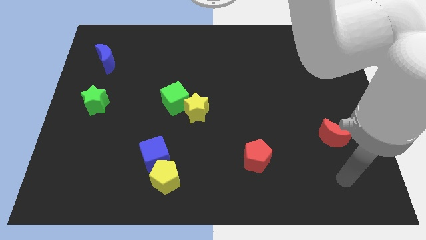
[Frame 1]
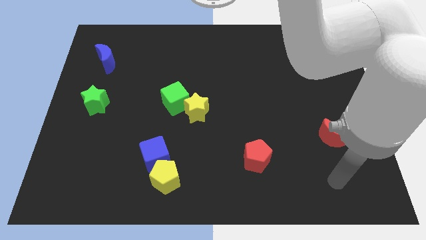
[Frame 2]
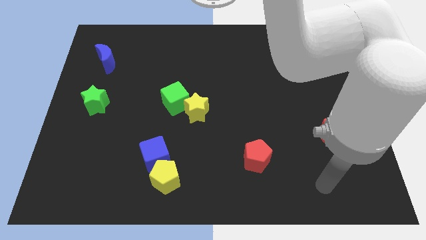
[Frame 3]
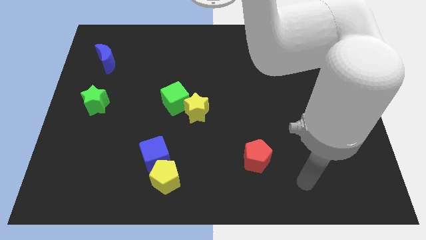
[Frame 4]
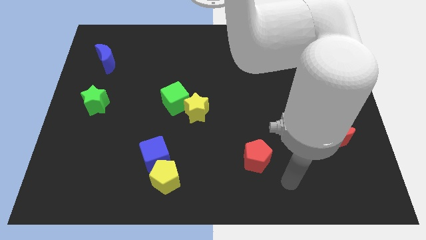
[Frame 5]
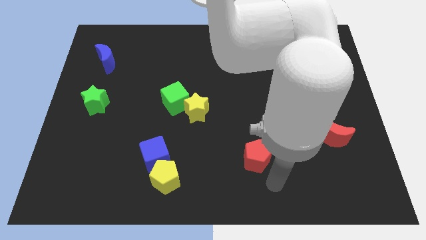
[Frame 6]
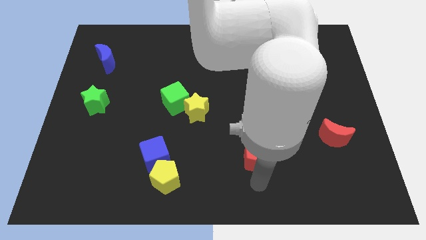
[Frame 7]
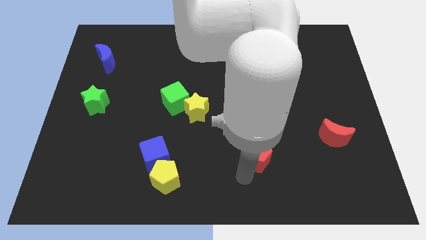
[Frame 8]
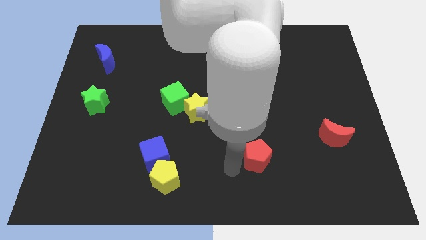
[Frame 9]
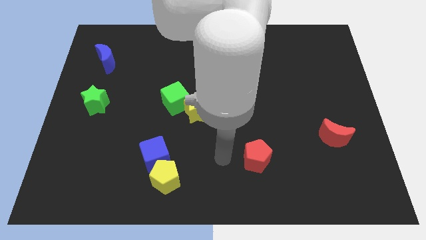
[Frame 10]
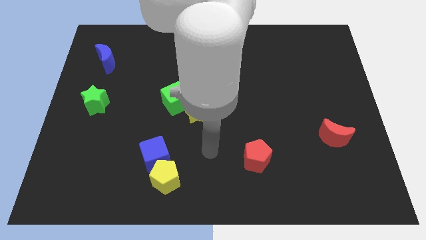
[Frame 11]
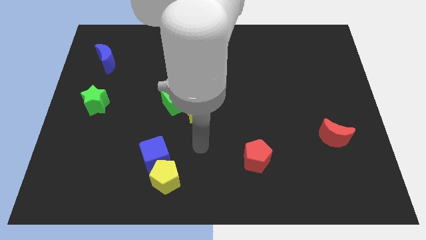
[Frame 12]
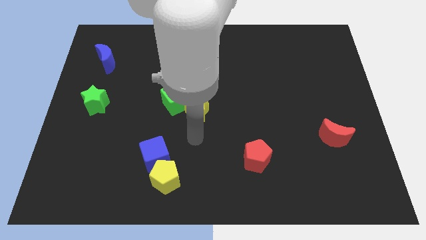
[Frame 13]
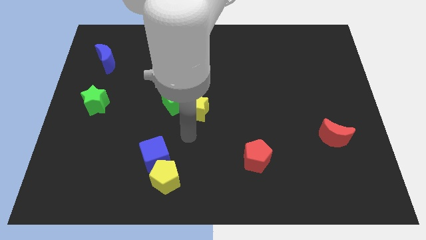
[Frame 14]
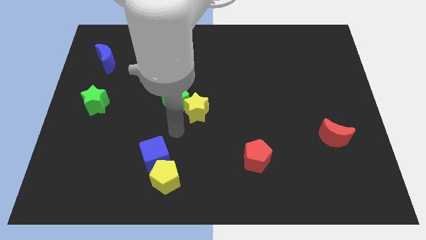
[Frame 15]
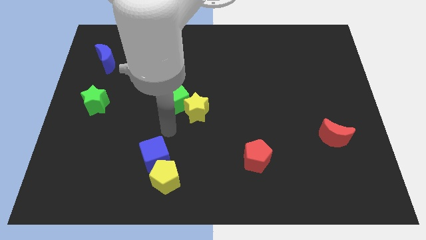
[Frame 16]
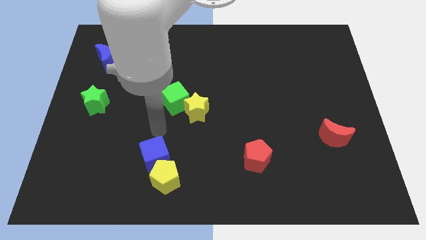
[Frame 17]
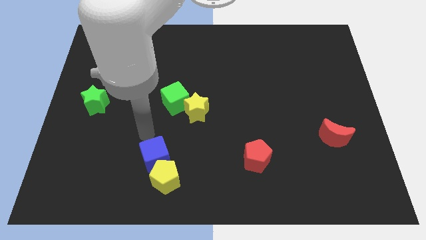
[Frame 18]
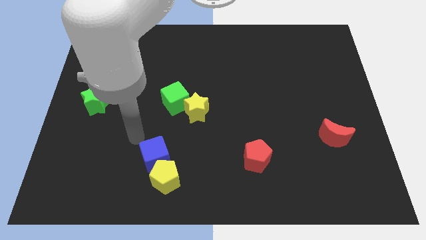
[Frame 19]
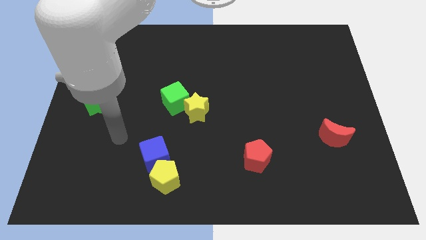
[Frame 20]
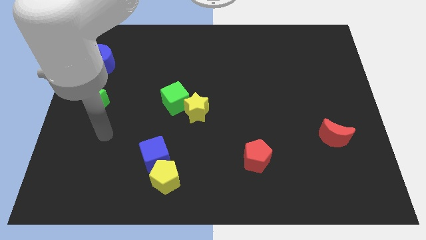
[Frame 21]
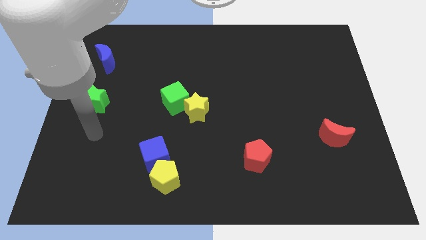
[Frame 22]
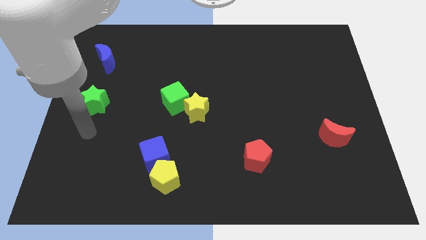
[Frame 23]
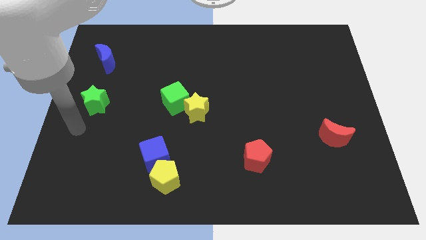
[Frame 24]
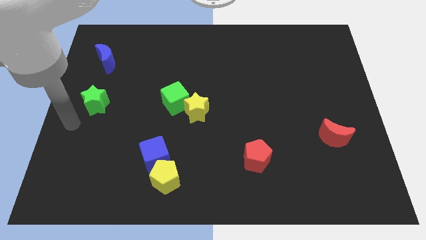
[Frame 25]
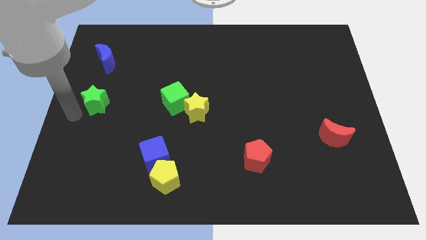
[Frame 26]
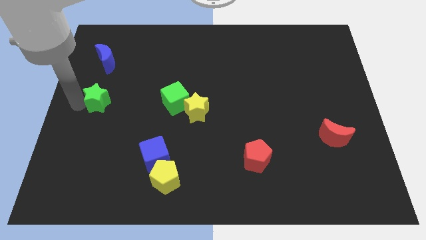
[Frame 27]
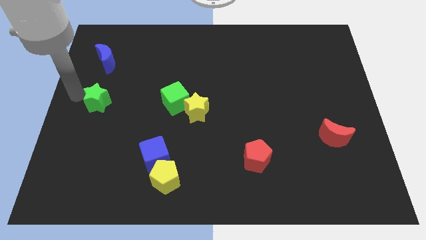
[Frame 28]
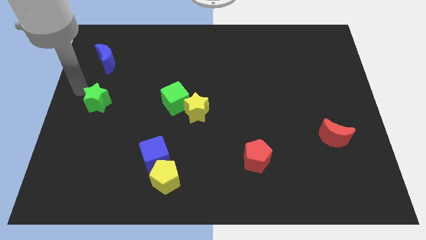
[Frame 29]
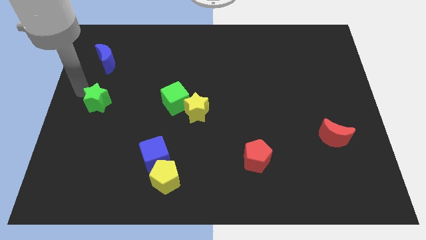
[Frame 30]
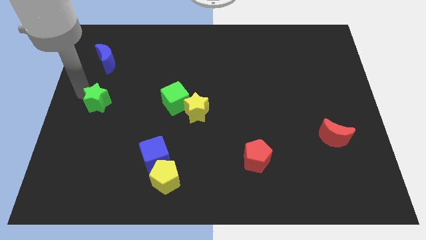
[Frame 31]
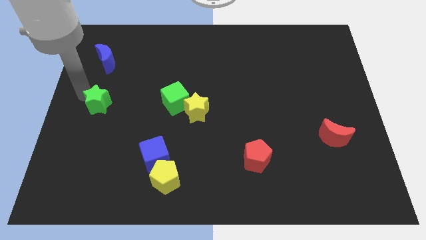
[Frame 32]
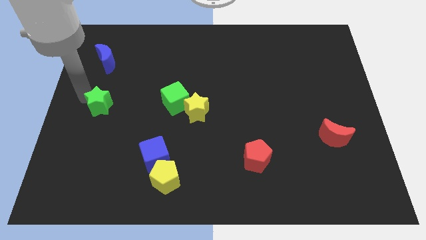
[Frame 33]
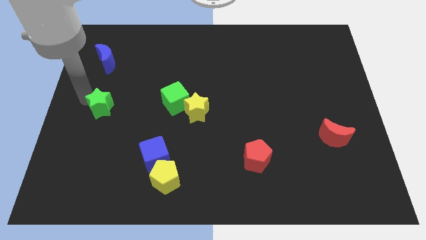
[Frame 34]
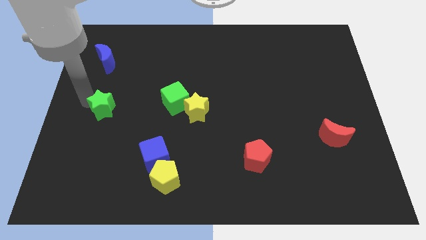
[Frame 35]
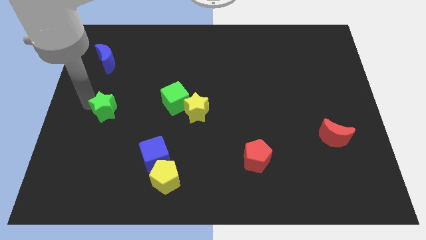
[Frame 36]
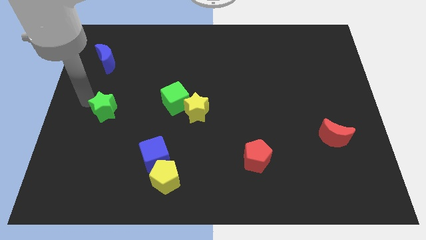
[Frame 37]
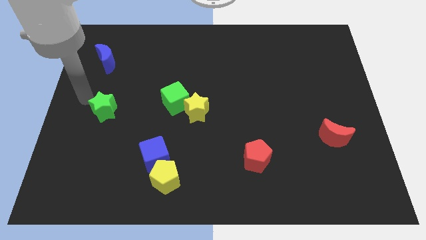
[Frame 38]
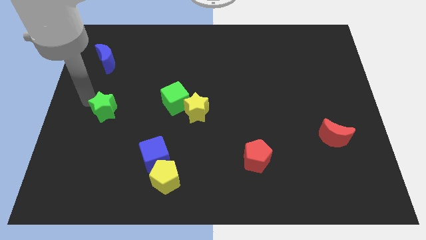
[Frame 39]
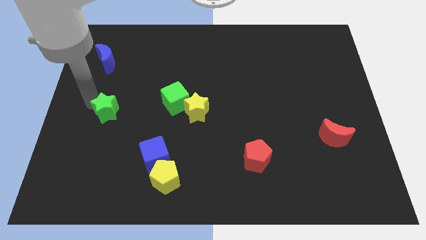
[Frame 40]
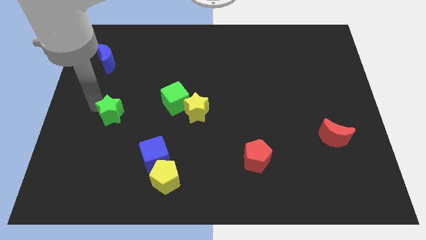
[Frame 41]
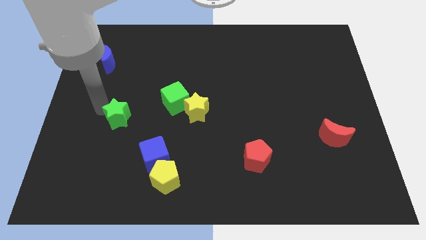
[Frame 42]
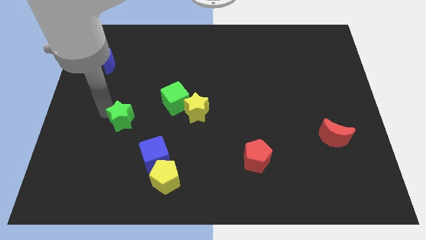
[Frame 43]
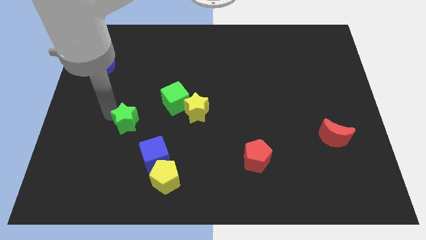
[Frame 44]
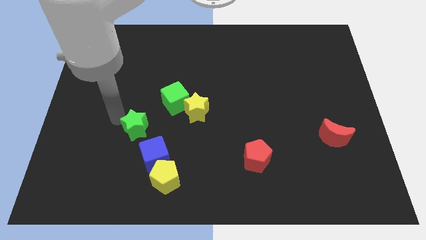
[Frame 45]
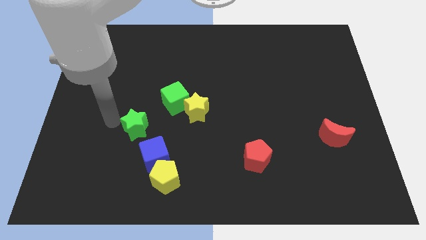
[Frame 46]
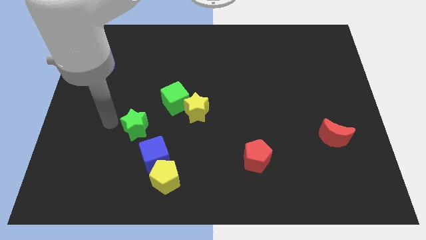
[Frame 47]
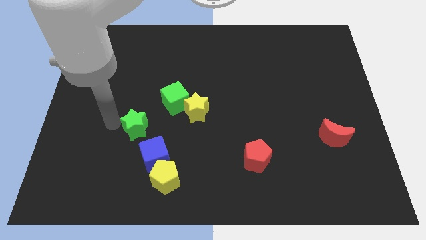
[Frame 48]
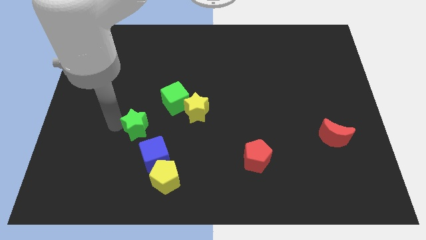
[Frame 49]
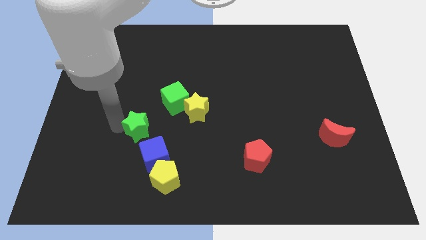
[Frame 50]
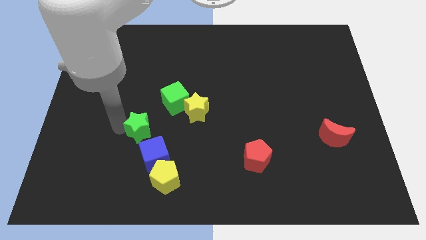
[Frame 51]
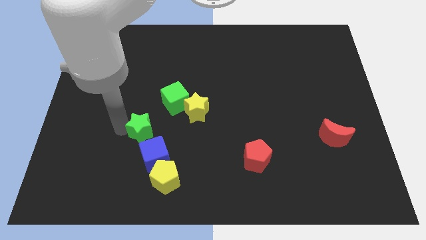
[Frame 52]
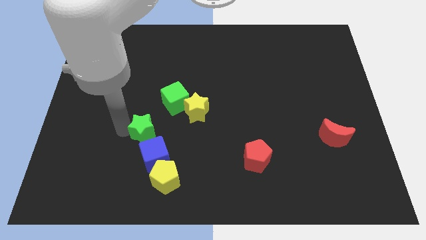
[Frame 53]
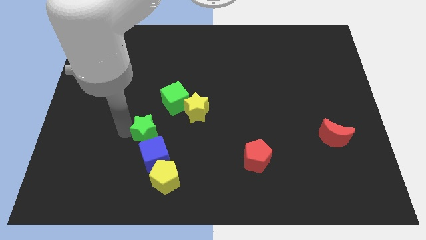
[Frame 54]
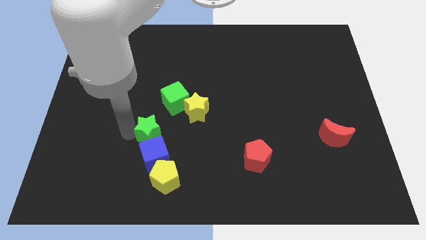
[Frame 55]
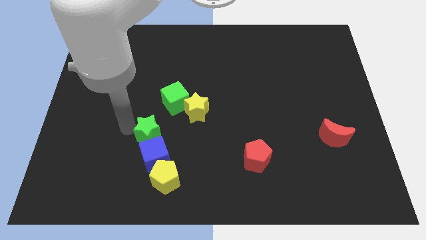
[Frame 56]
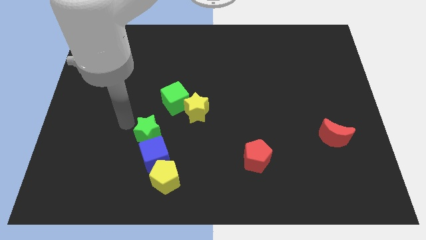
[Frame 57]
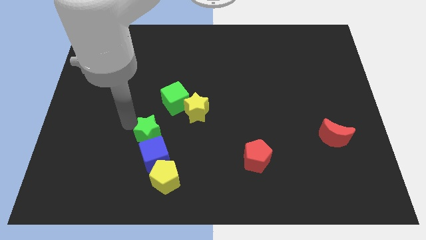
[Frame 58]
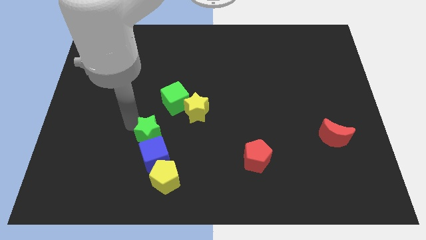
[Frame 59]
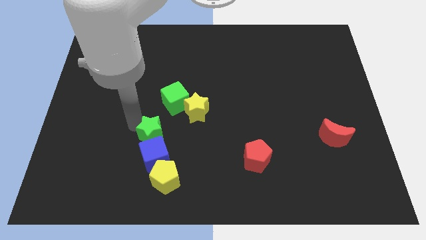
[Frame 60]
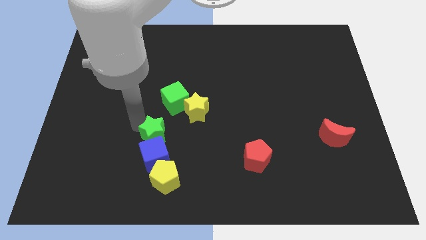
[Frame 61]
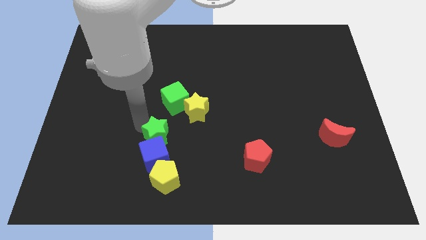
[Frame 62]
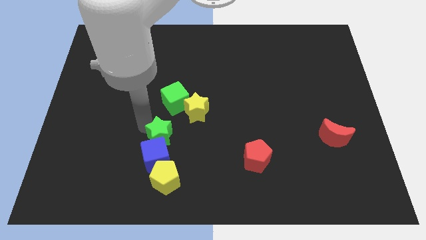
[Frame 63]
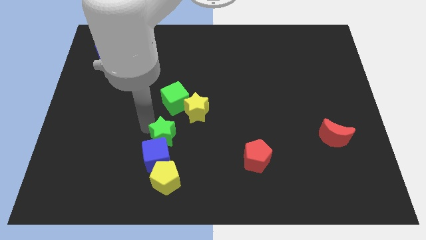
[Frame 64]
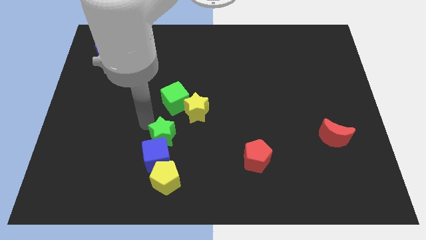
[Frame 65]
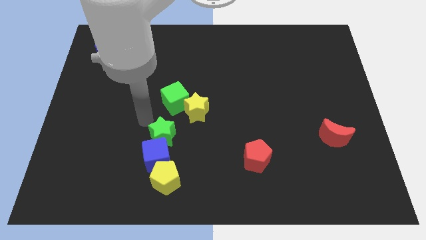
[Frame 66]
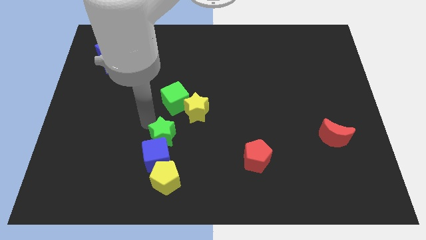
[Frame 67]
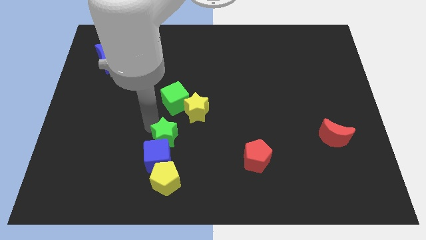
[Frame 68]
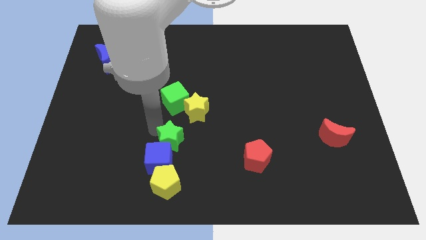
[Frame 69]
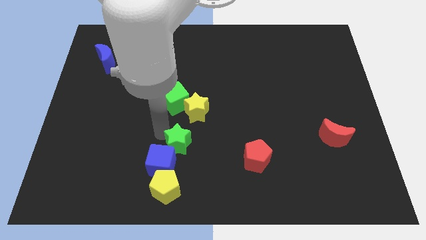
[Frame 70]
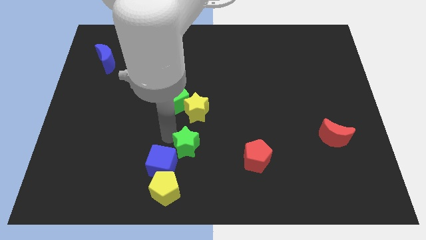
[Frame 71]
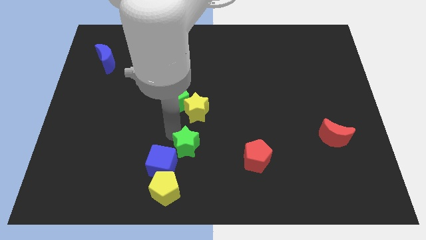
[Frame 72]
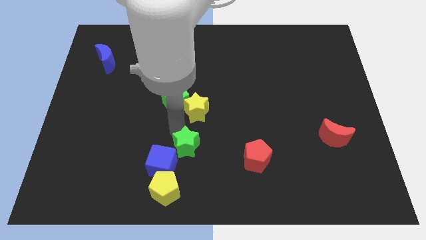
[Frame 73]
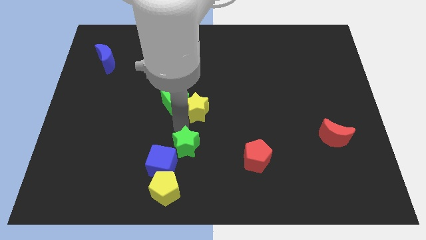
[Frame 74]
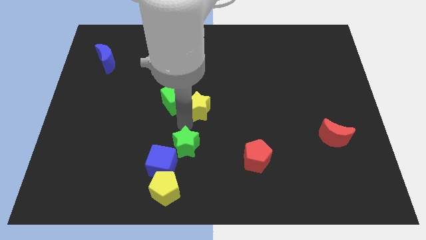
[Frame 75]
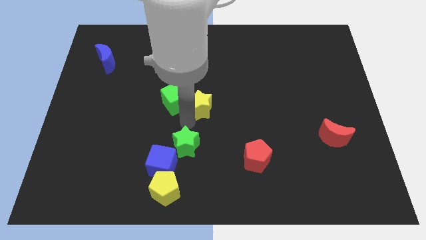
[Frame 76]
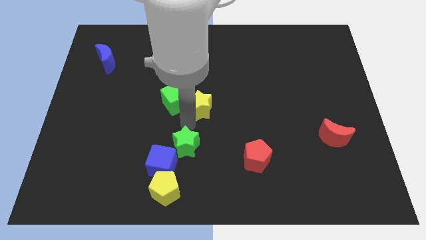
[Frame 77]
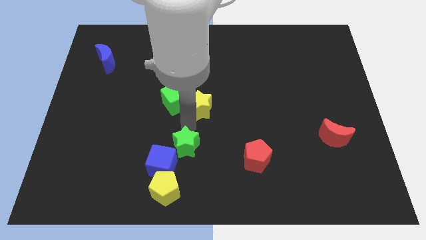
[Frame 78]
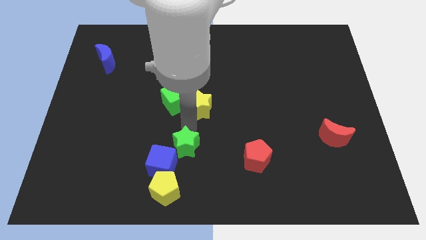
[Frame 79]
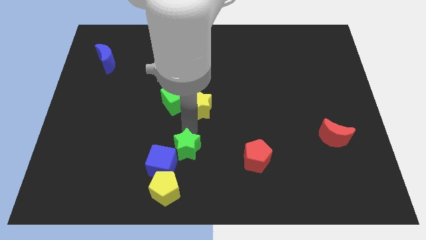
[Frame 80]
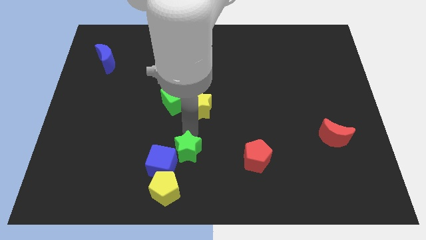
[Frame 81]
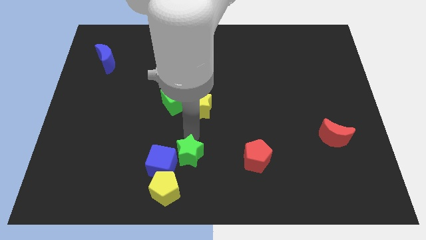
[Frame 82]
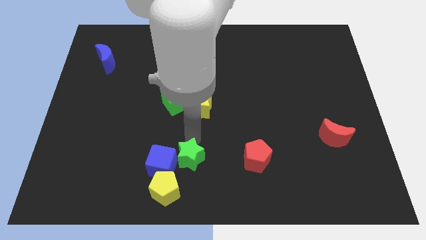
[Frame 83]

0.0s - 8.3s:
slide the green star to the bottom
